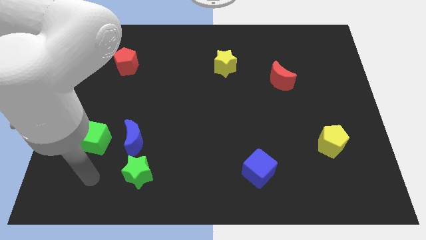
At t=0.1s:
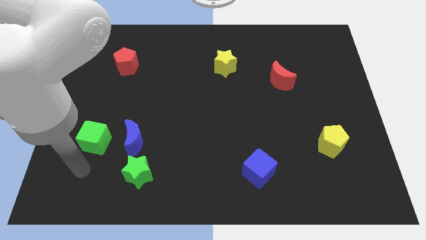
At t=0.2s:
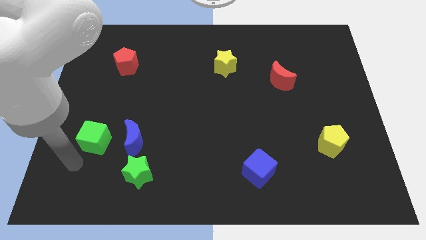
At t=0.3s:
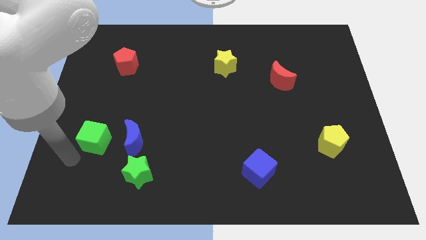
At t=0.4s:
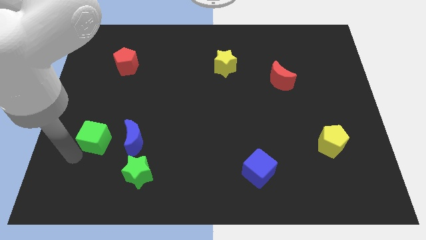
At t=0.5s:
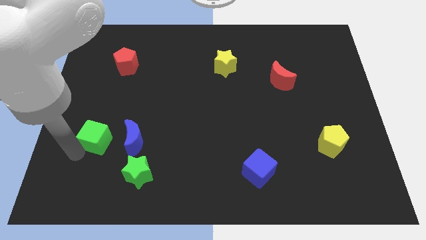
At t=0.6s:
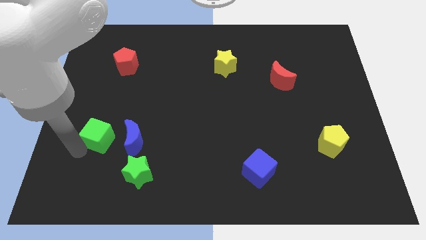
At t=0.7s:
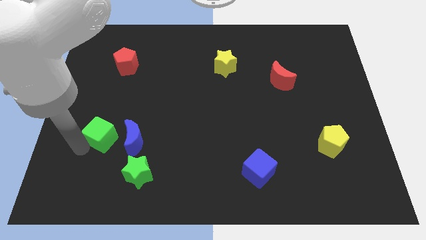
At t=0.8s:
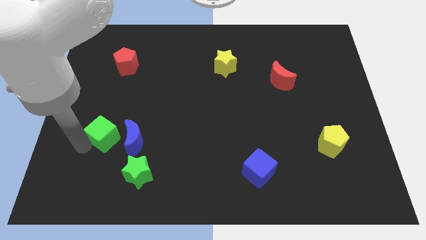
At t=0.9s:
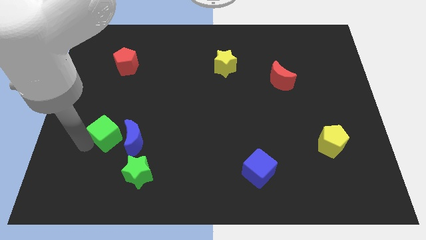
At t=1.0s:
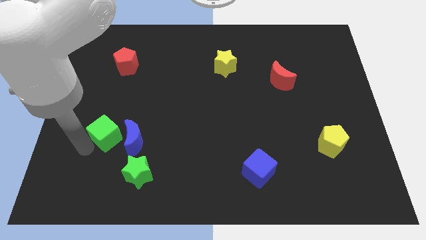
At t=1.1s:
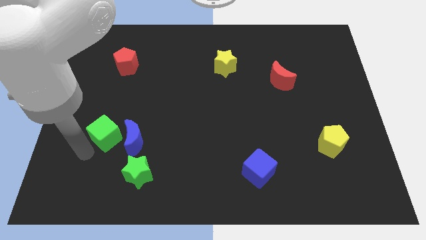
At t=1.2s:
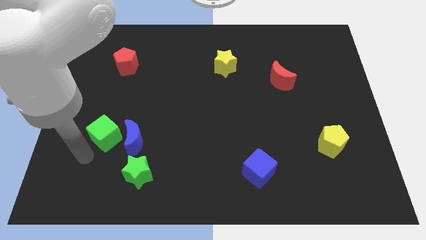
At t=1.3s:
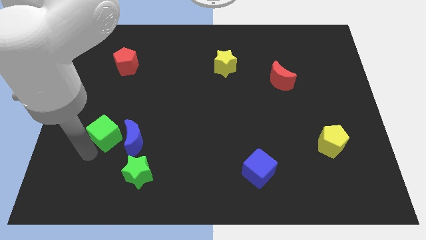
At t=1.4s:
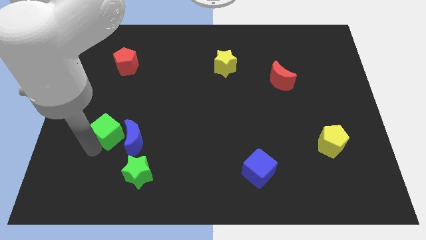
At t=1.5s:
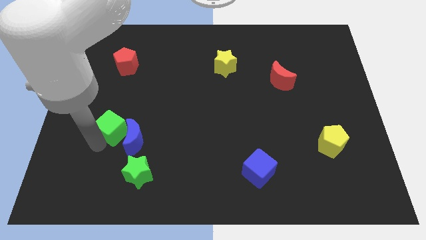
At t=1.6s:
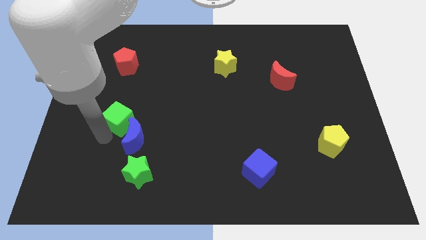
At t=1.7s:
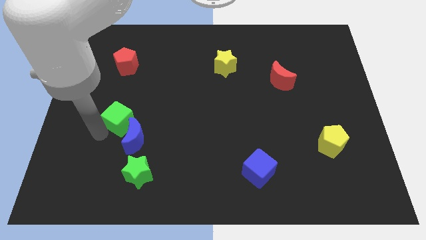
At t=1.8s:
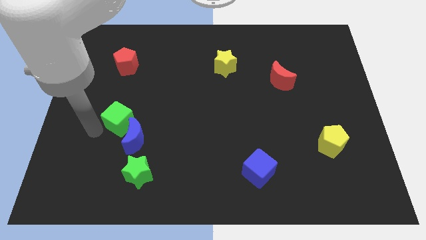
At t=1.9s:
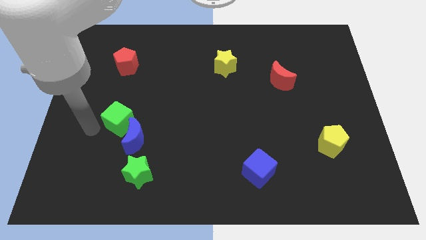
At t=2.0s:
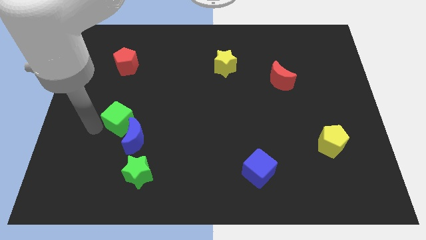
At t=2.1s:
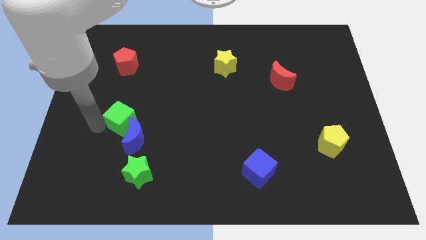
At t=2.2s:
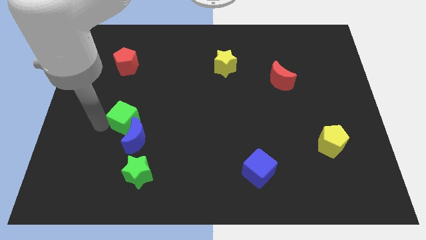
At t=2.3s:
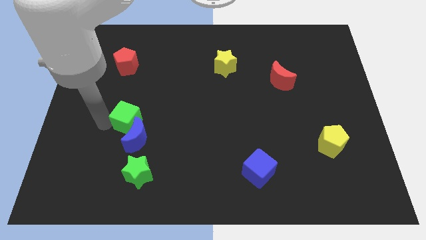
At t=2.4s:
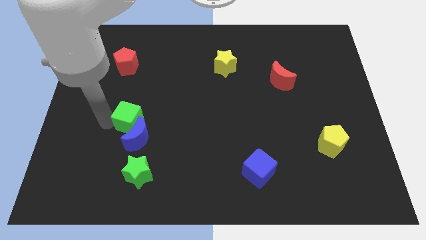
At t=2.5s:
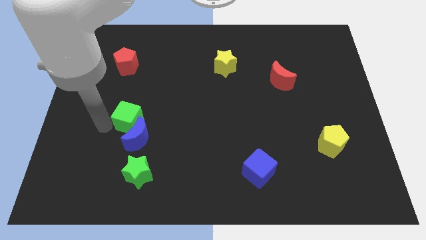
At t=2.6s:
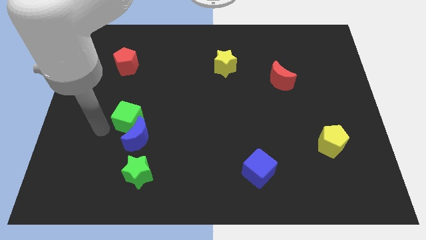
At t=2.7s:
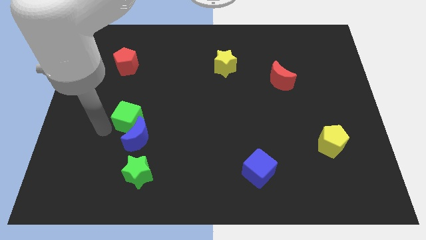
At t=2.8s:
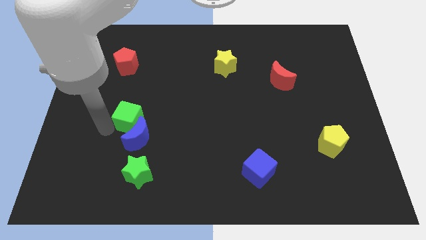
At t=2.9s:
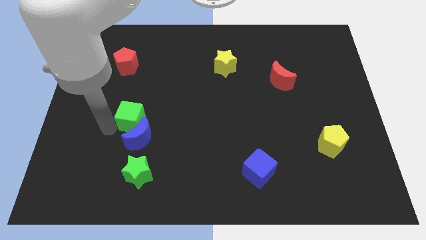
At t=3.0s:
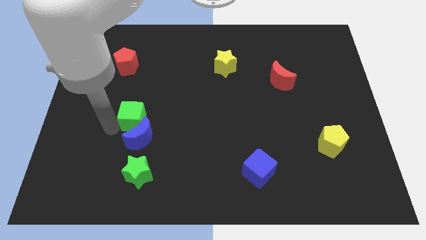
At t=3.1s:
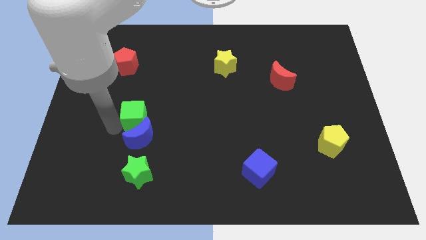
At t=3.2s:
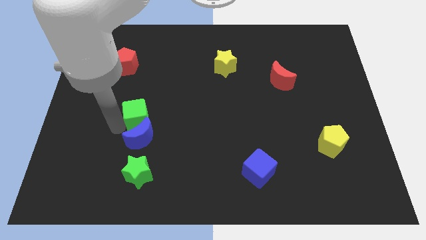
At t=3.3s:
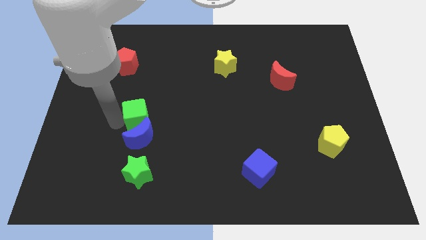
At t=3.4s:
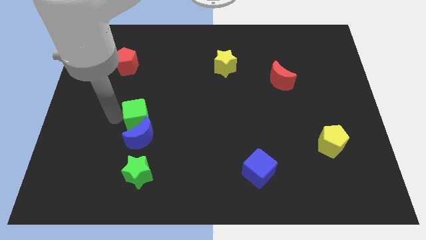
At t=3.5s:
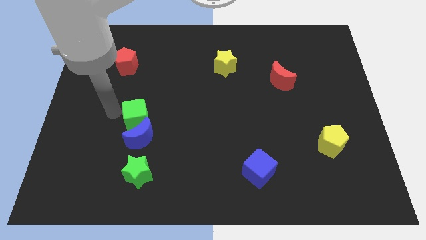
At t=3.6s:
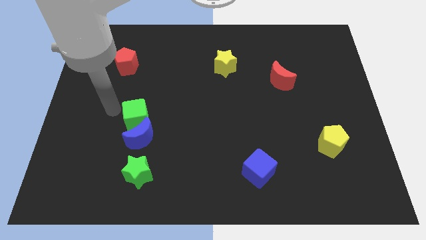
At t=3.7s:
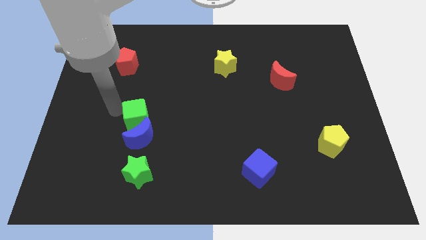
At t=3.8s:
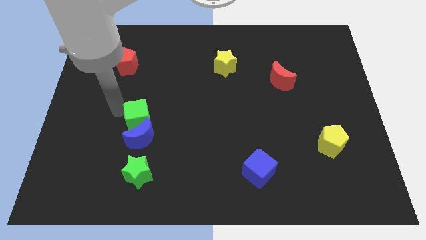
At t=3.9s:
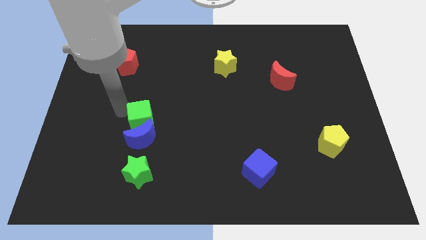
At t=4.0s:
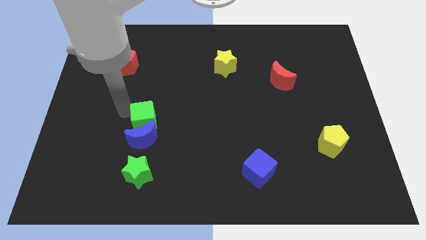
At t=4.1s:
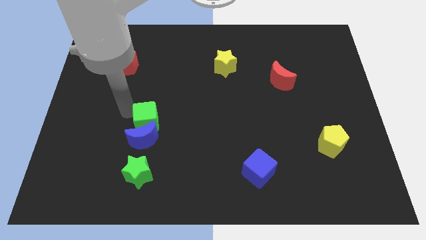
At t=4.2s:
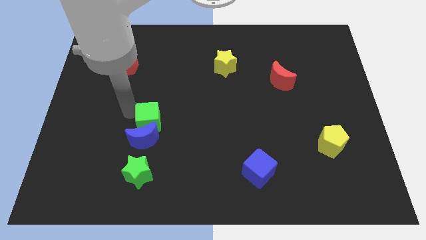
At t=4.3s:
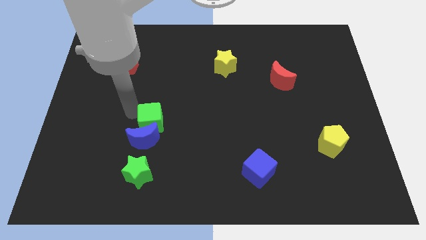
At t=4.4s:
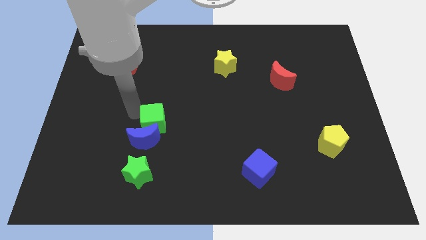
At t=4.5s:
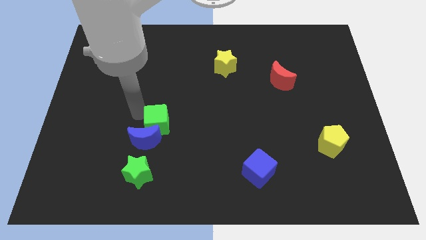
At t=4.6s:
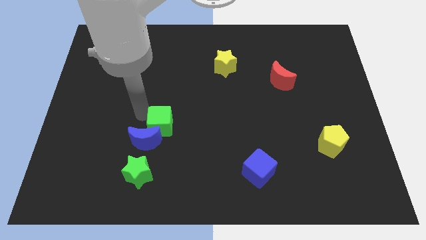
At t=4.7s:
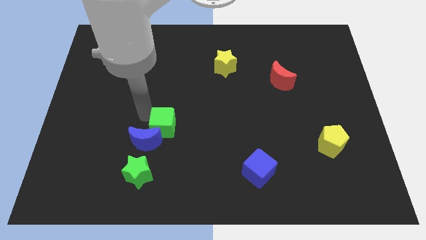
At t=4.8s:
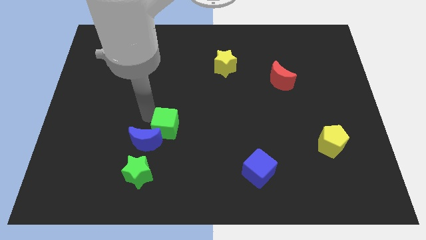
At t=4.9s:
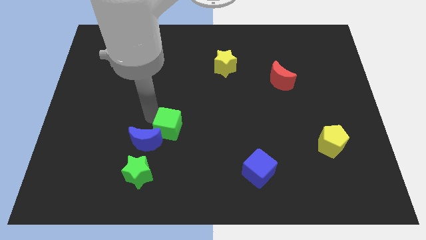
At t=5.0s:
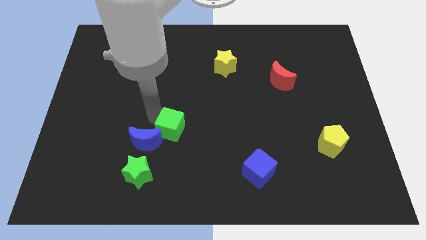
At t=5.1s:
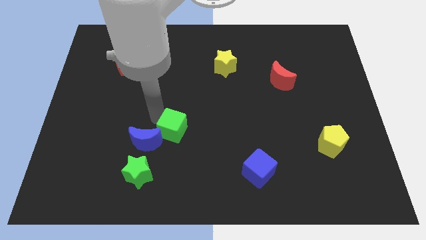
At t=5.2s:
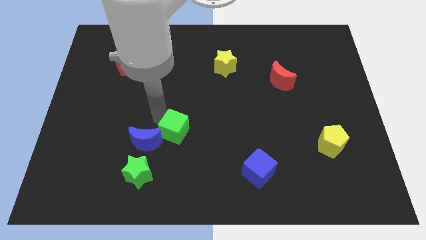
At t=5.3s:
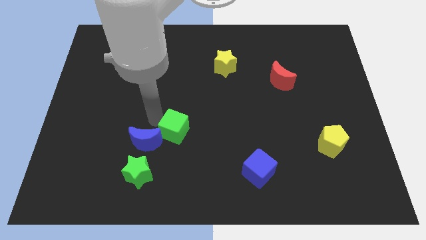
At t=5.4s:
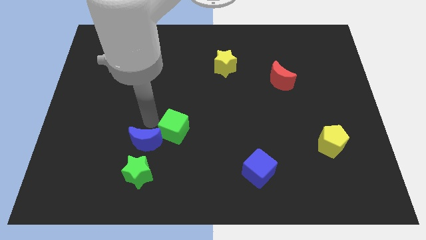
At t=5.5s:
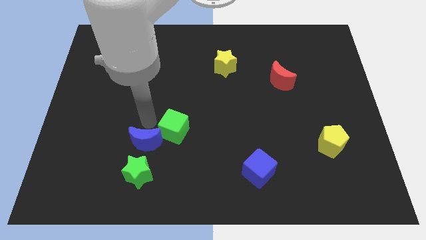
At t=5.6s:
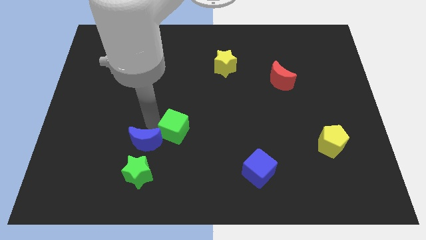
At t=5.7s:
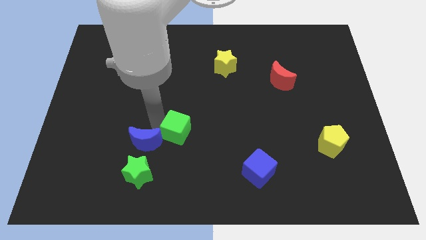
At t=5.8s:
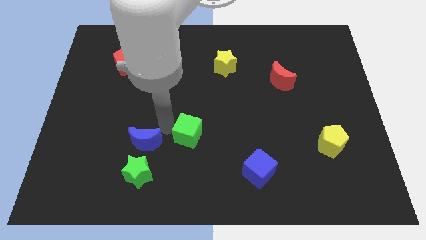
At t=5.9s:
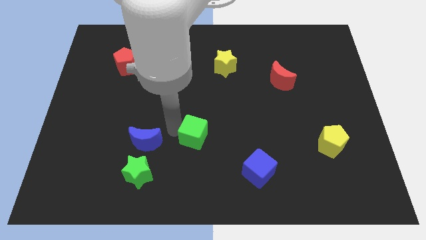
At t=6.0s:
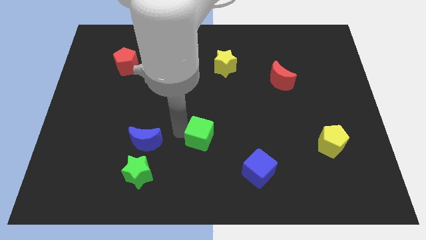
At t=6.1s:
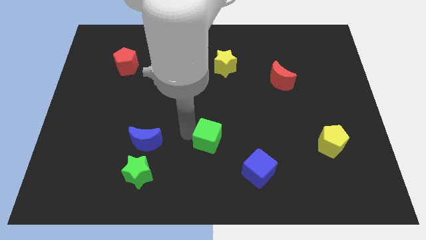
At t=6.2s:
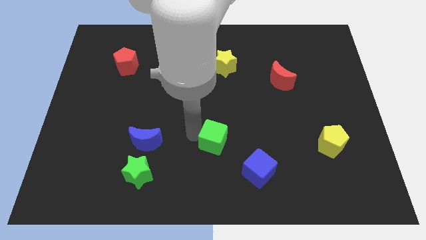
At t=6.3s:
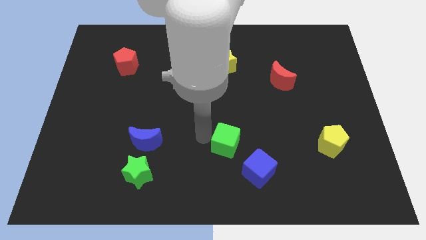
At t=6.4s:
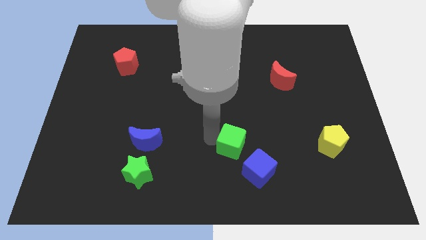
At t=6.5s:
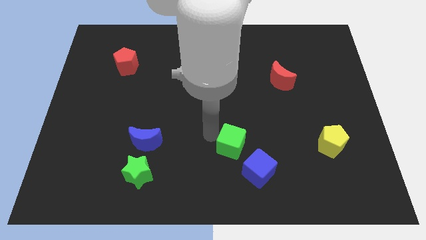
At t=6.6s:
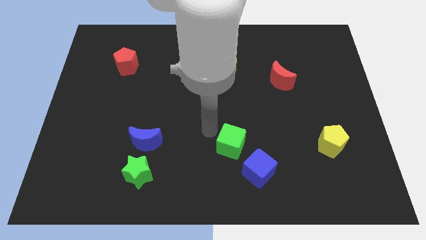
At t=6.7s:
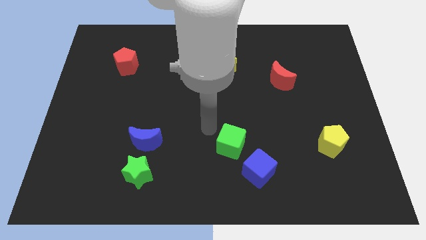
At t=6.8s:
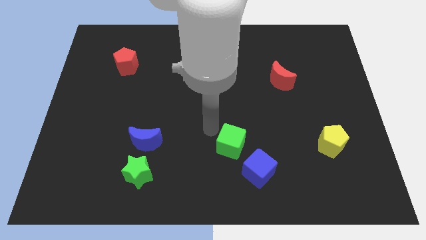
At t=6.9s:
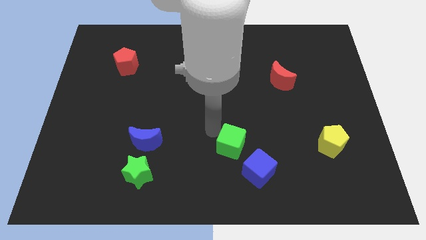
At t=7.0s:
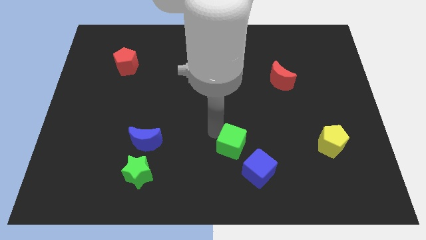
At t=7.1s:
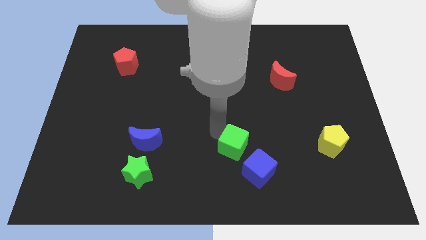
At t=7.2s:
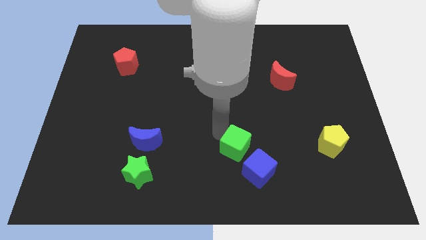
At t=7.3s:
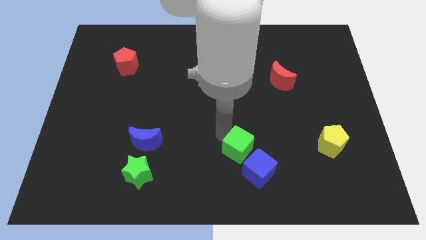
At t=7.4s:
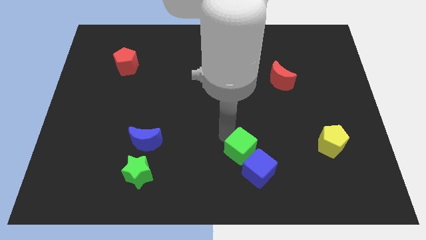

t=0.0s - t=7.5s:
put the green cube close to the blue cube
